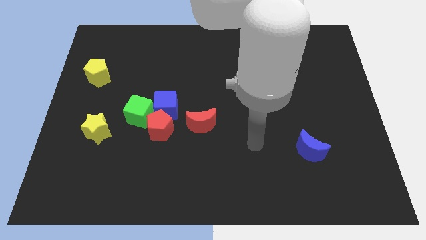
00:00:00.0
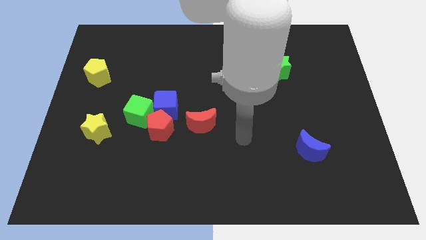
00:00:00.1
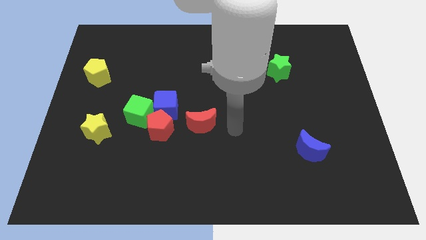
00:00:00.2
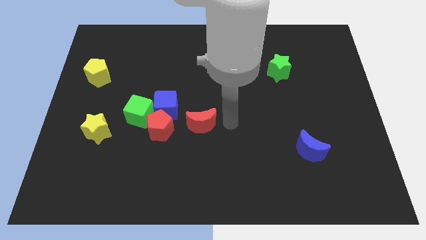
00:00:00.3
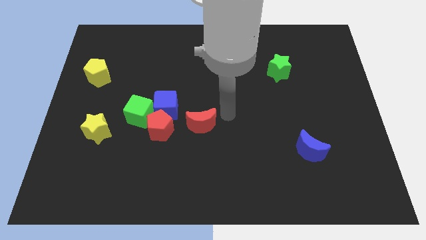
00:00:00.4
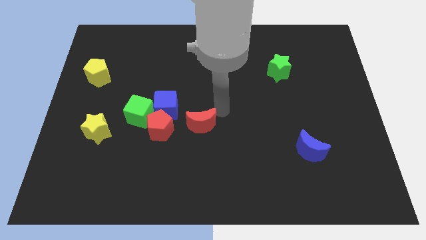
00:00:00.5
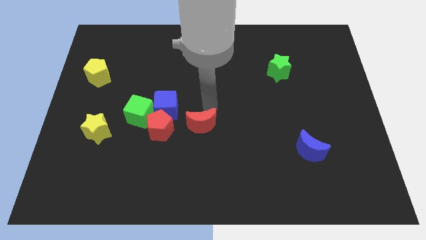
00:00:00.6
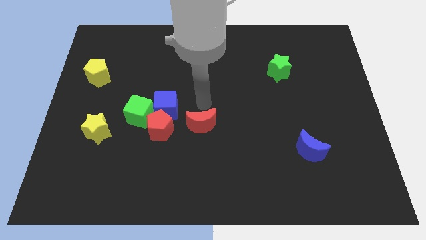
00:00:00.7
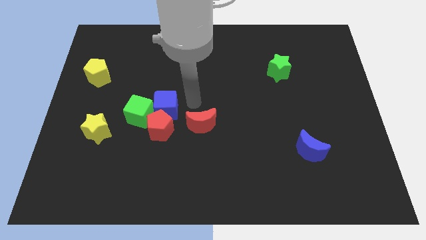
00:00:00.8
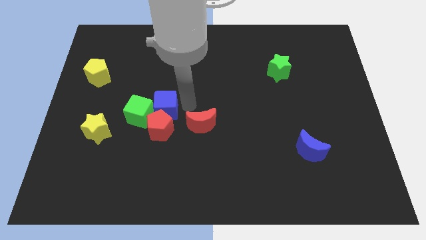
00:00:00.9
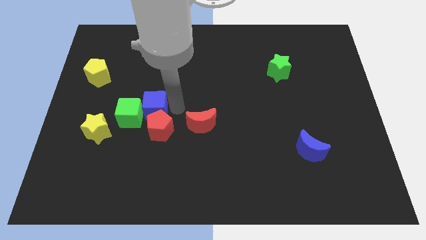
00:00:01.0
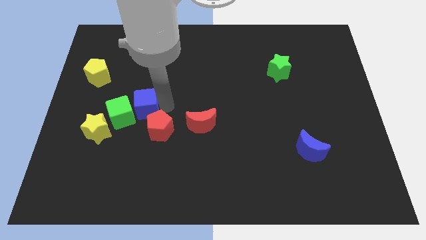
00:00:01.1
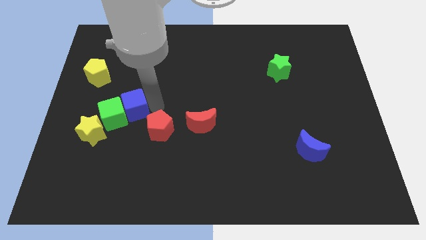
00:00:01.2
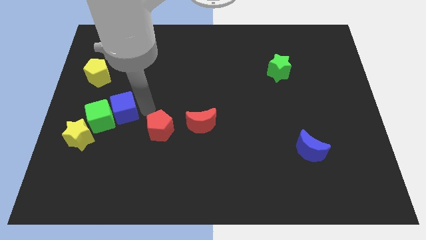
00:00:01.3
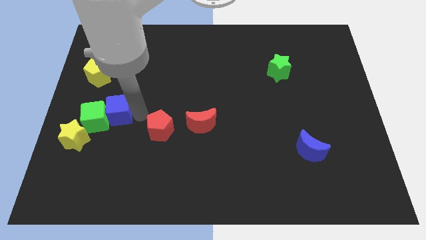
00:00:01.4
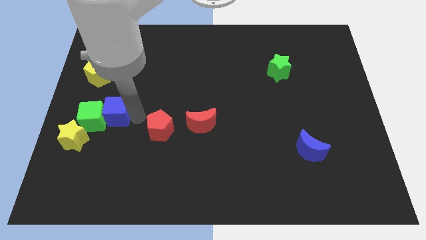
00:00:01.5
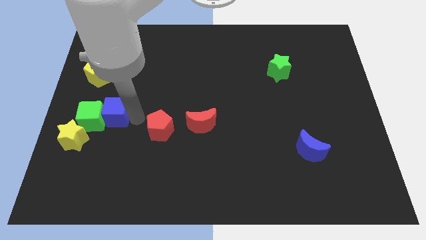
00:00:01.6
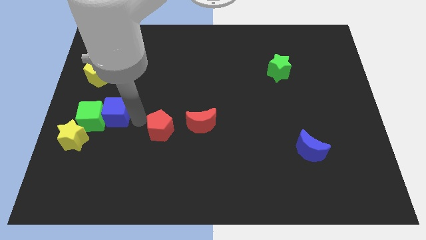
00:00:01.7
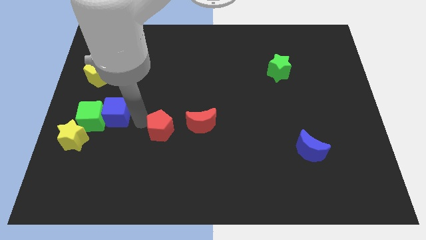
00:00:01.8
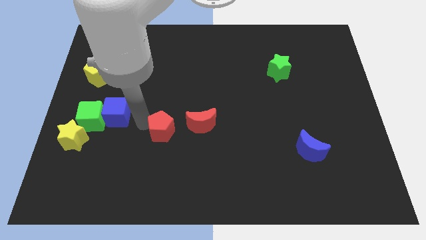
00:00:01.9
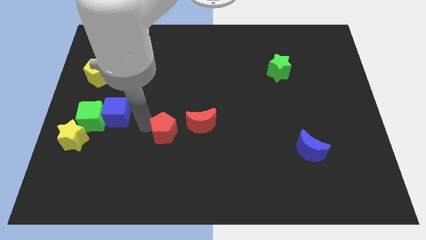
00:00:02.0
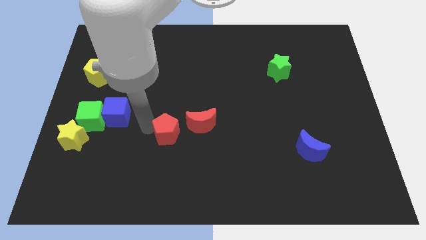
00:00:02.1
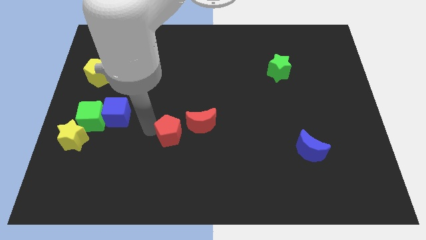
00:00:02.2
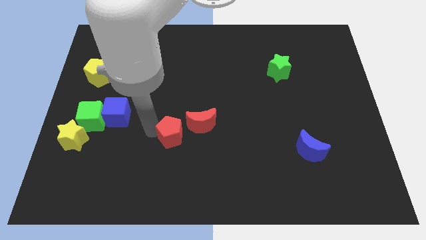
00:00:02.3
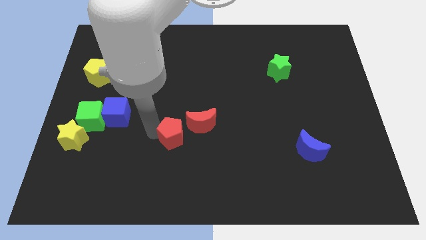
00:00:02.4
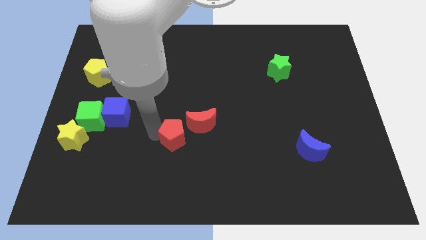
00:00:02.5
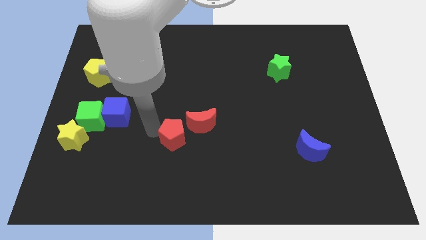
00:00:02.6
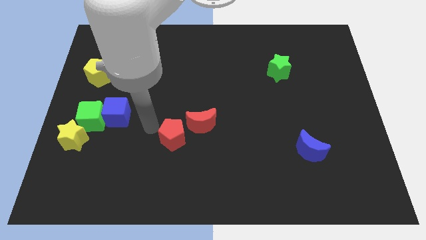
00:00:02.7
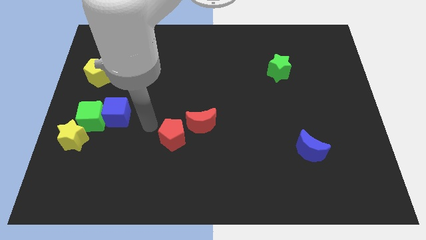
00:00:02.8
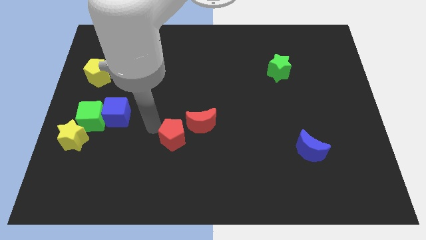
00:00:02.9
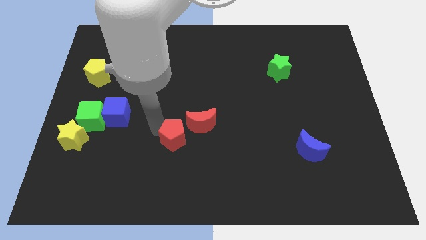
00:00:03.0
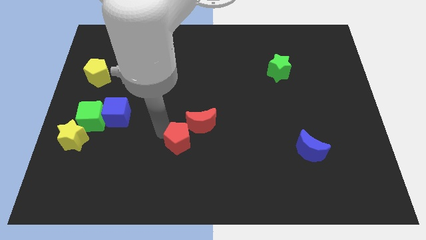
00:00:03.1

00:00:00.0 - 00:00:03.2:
move the red pentagon away from the blue cube, green cube, and red moon

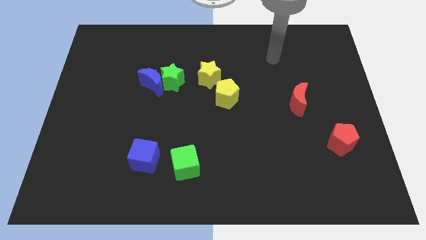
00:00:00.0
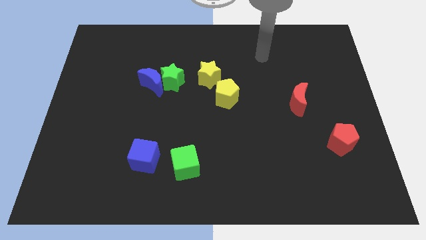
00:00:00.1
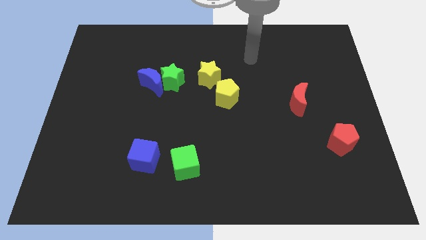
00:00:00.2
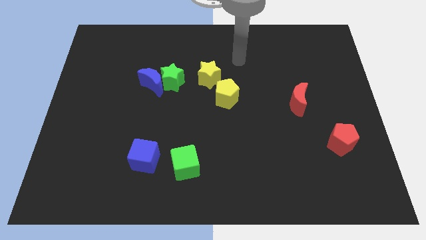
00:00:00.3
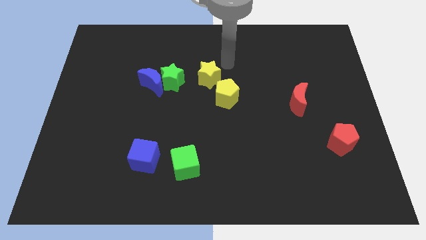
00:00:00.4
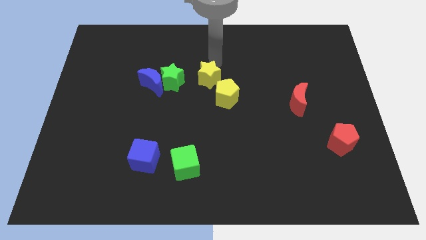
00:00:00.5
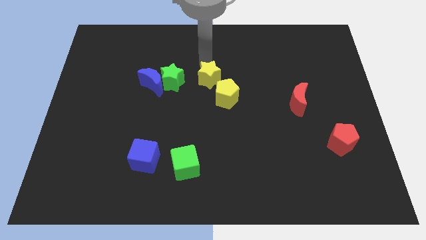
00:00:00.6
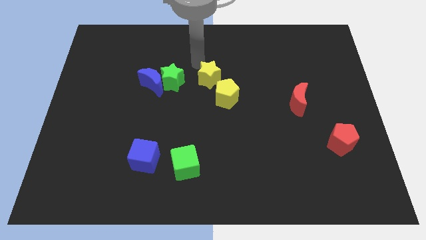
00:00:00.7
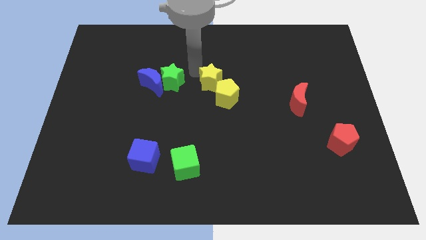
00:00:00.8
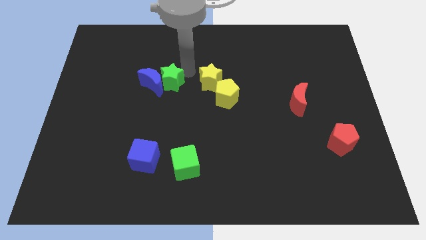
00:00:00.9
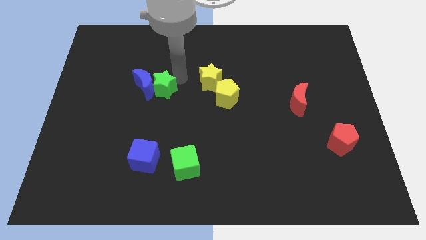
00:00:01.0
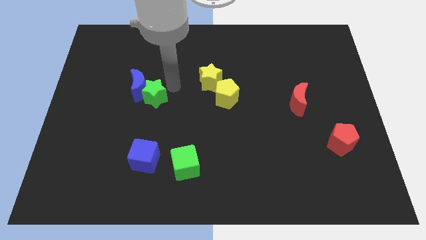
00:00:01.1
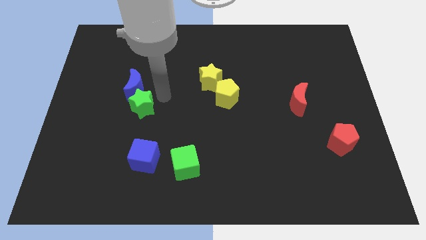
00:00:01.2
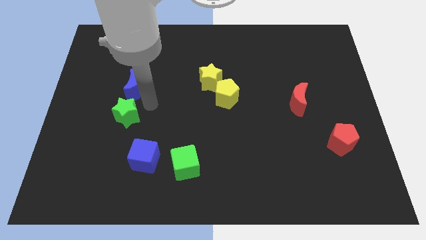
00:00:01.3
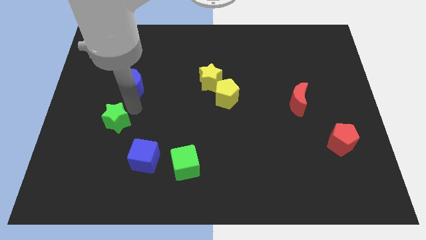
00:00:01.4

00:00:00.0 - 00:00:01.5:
separate the blue moon from the green star

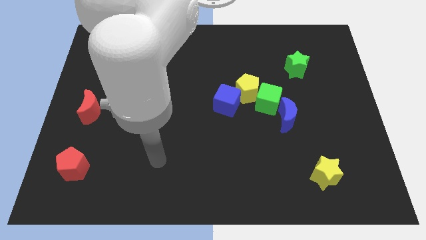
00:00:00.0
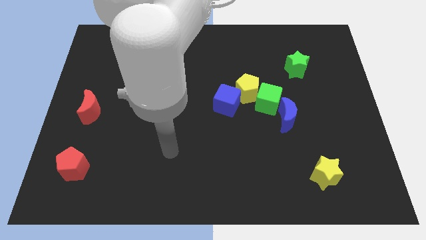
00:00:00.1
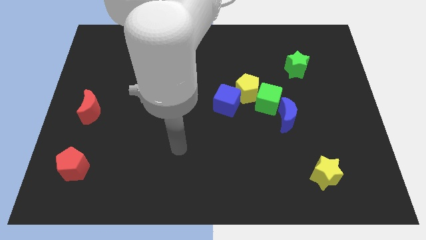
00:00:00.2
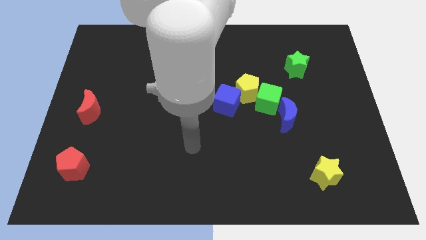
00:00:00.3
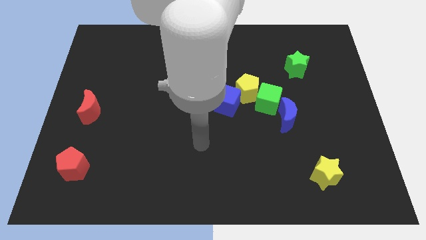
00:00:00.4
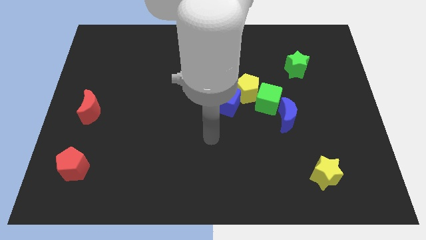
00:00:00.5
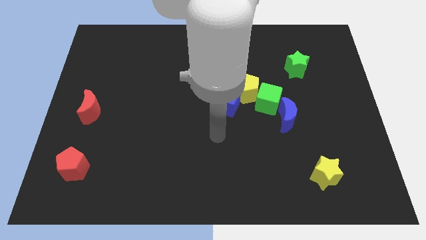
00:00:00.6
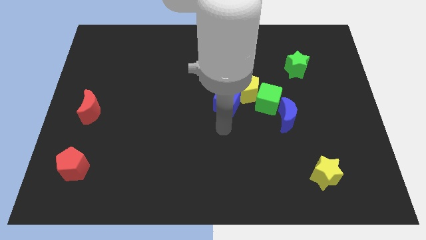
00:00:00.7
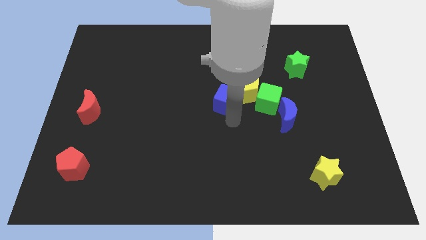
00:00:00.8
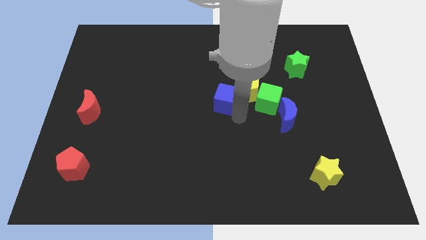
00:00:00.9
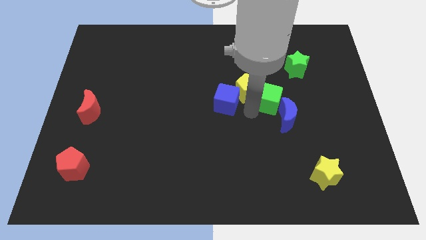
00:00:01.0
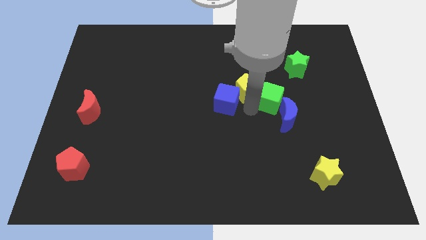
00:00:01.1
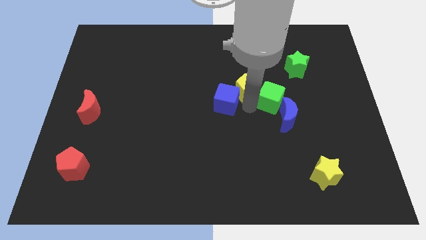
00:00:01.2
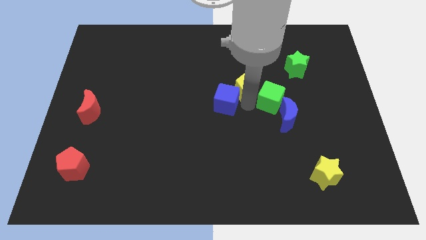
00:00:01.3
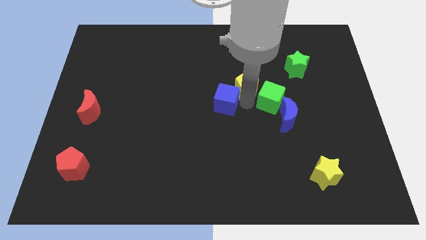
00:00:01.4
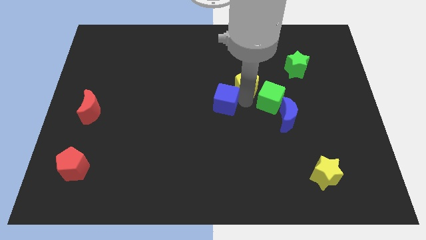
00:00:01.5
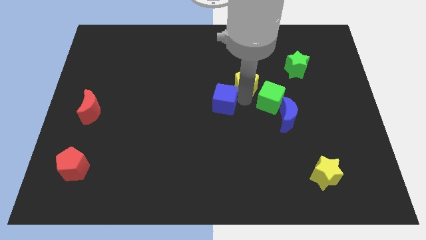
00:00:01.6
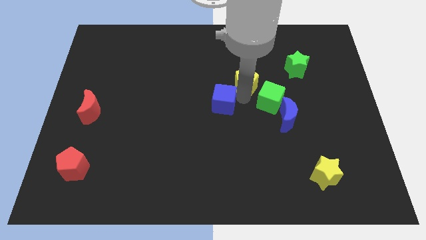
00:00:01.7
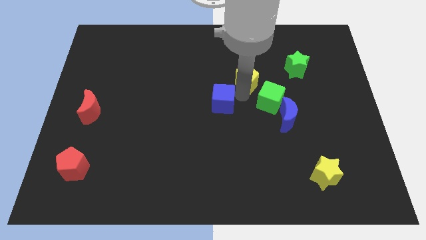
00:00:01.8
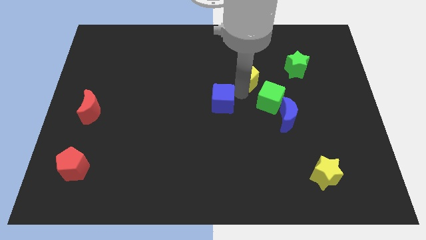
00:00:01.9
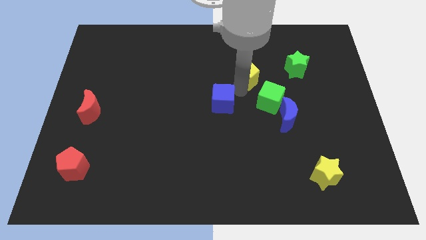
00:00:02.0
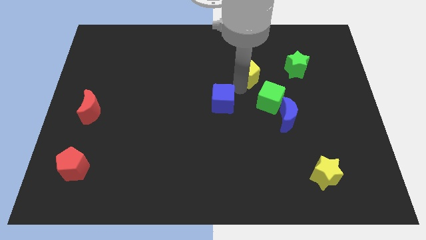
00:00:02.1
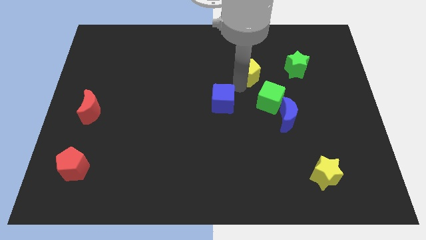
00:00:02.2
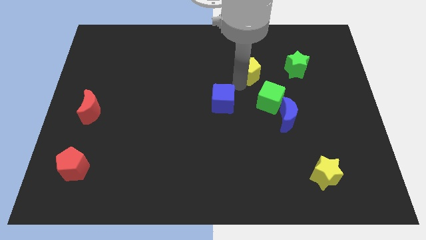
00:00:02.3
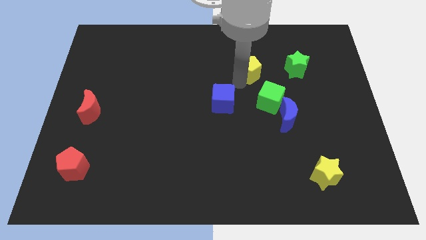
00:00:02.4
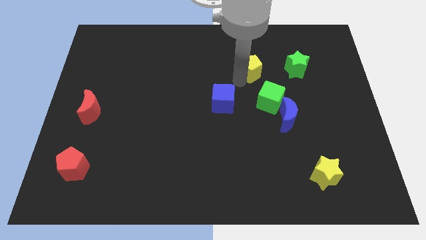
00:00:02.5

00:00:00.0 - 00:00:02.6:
pull the yellow pentagon apart from the green cube and blue cube

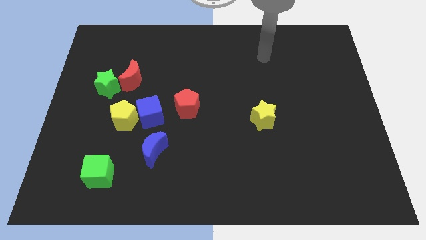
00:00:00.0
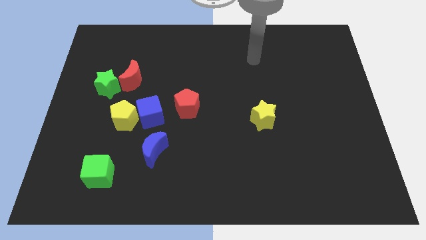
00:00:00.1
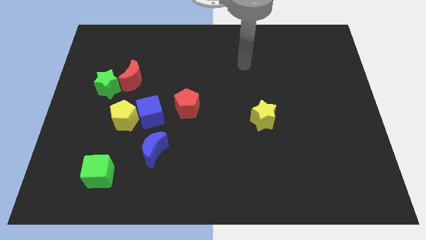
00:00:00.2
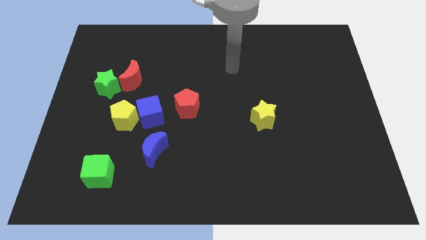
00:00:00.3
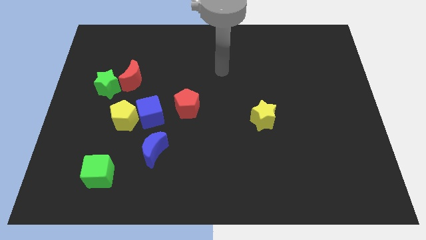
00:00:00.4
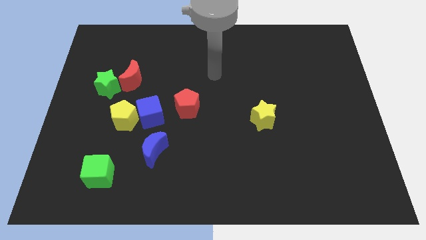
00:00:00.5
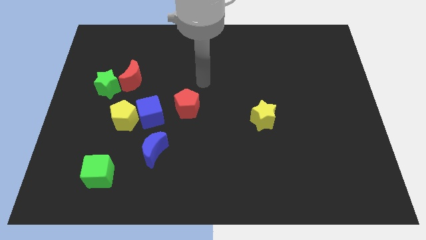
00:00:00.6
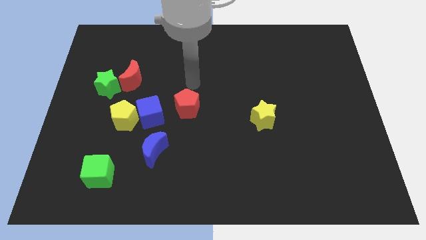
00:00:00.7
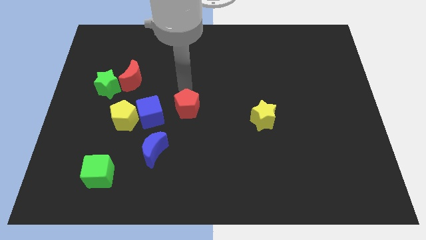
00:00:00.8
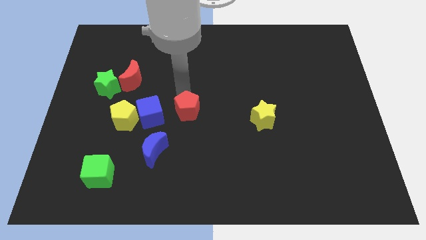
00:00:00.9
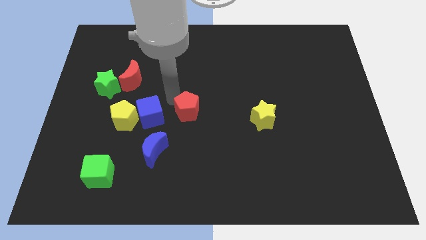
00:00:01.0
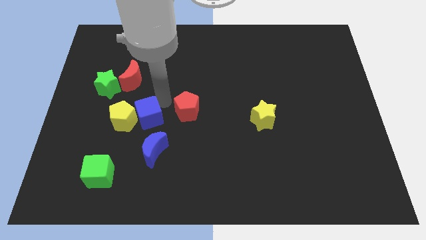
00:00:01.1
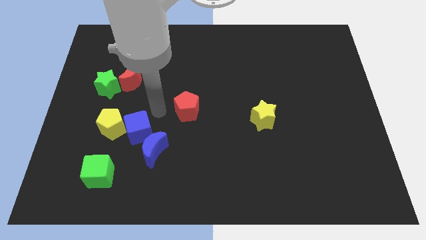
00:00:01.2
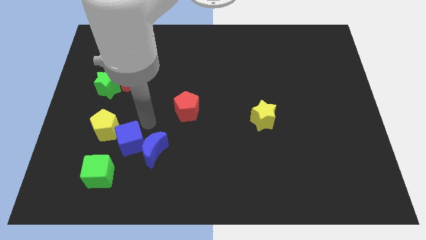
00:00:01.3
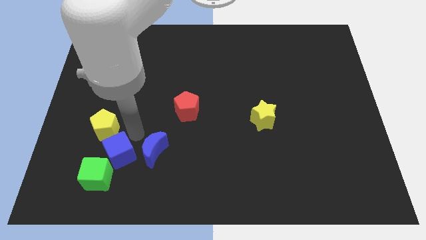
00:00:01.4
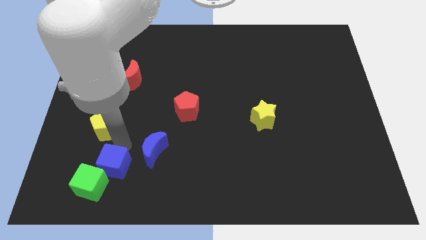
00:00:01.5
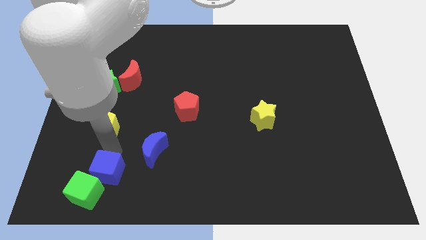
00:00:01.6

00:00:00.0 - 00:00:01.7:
pull the yellow pentagon apart from the blue cube

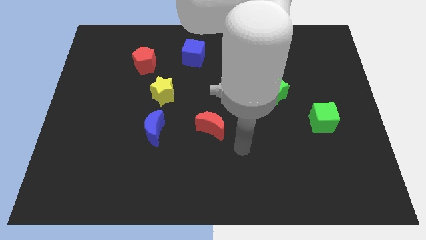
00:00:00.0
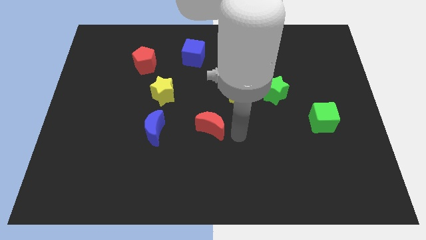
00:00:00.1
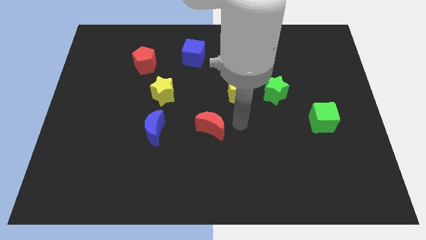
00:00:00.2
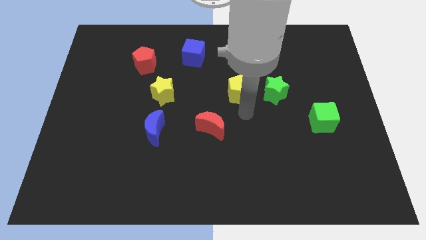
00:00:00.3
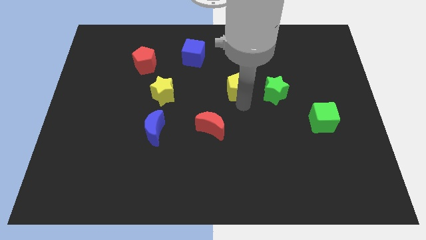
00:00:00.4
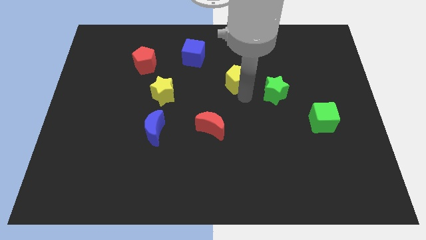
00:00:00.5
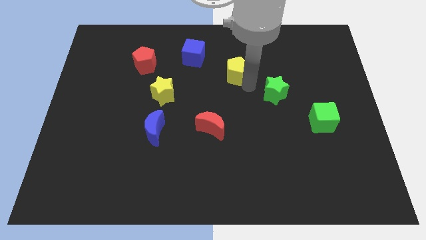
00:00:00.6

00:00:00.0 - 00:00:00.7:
pull the green star apart from the yellow pentagon
